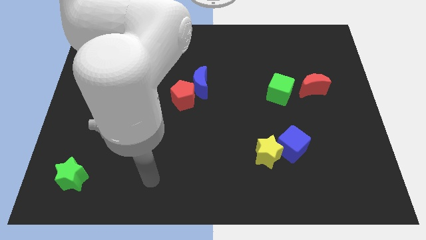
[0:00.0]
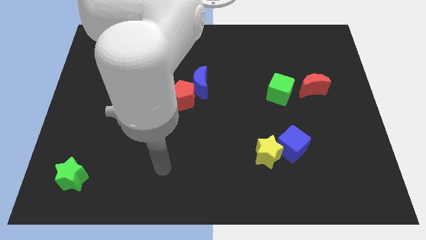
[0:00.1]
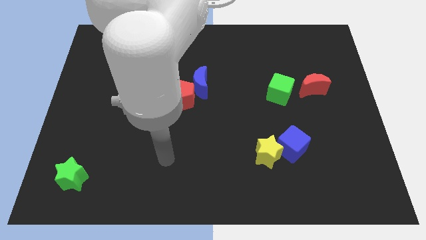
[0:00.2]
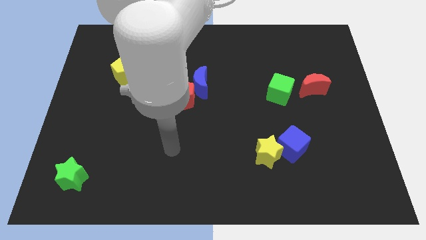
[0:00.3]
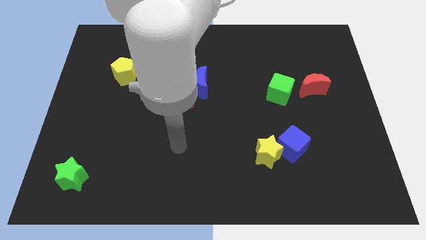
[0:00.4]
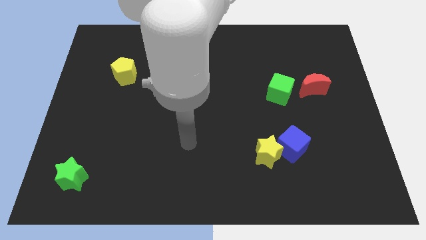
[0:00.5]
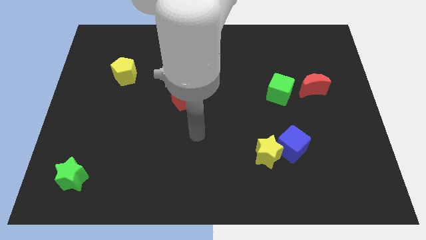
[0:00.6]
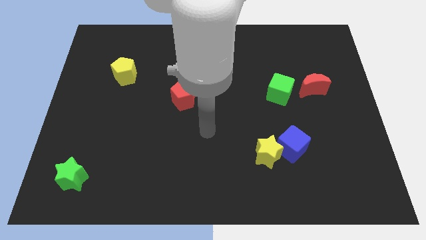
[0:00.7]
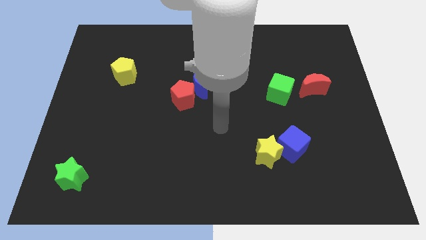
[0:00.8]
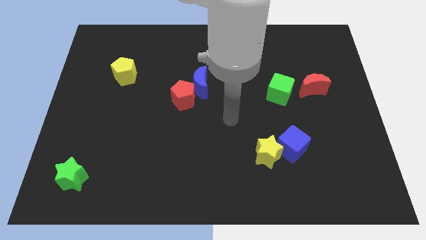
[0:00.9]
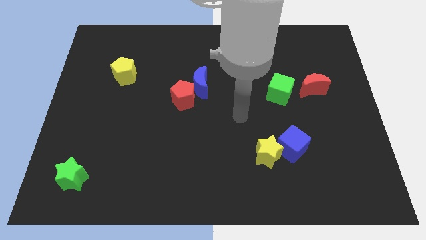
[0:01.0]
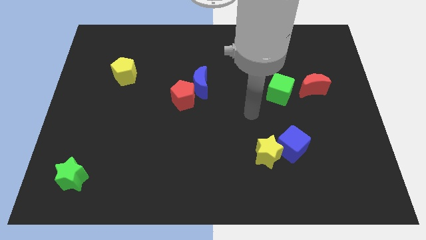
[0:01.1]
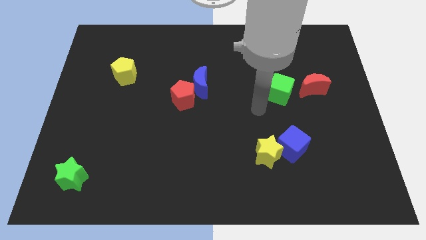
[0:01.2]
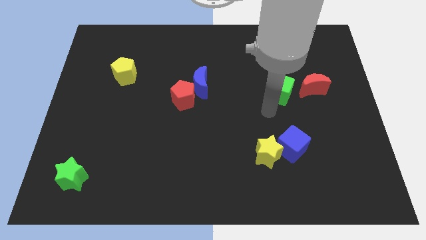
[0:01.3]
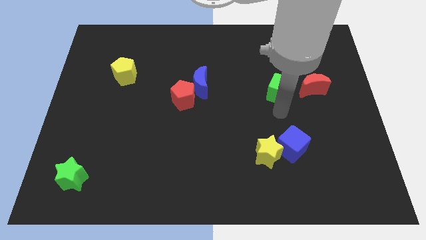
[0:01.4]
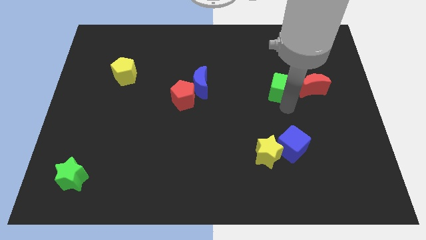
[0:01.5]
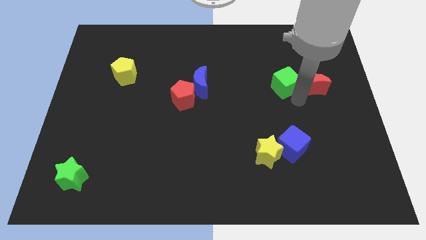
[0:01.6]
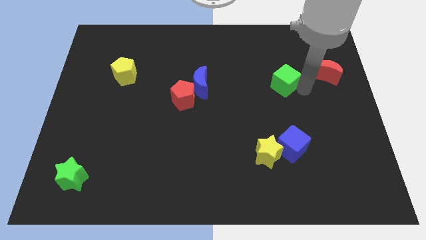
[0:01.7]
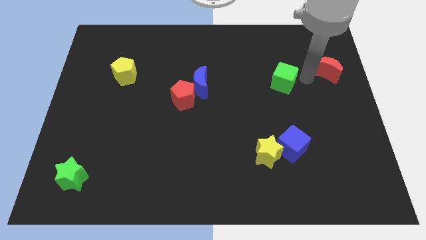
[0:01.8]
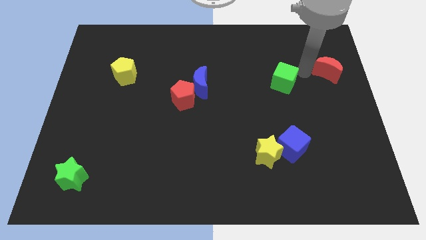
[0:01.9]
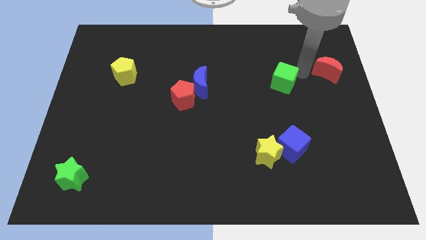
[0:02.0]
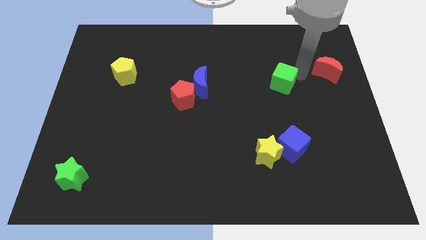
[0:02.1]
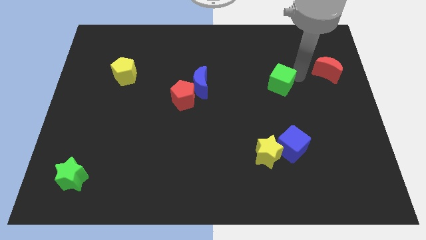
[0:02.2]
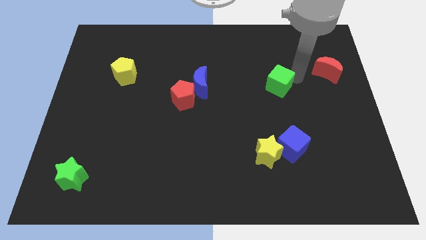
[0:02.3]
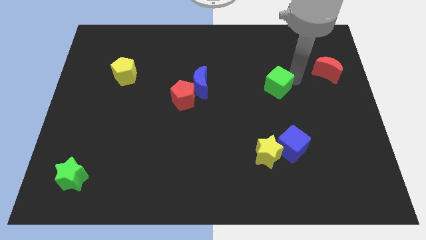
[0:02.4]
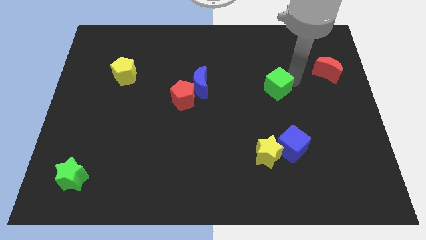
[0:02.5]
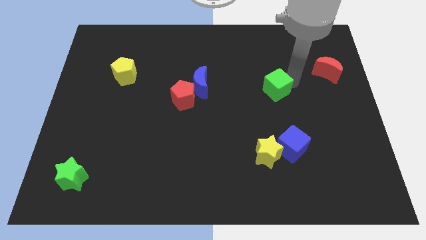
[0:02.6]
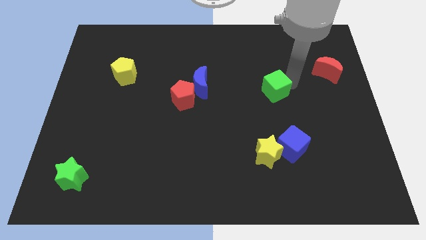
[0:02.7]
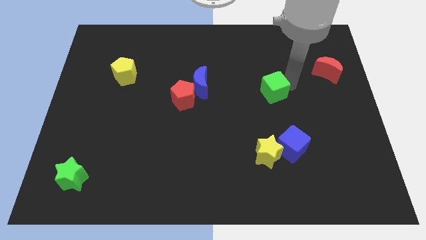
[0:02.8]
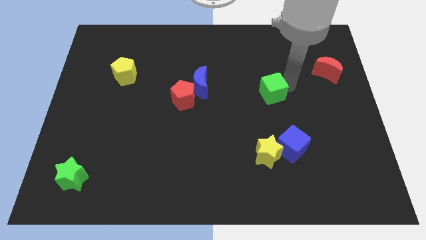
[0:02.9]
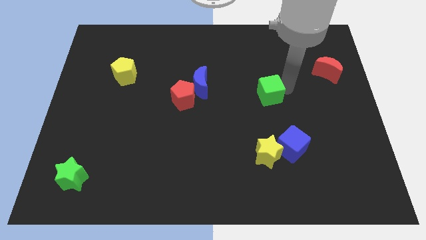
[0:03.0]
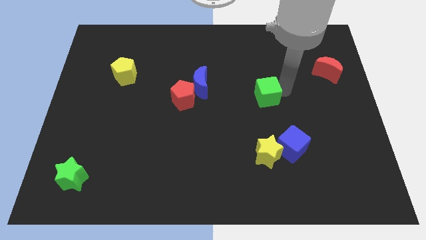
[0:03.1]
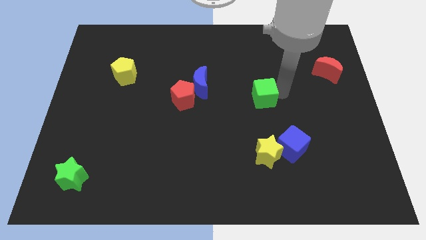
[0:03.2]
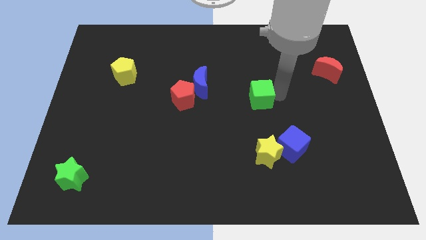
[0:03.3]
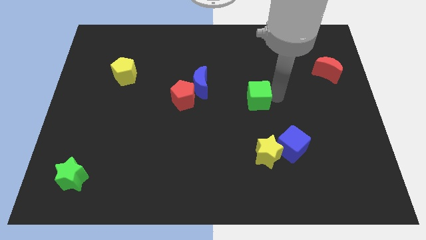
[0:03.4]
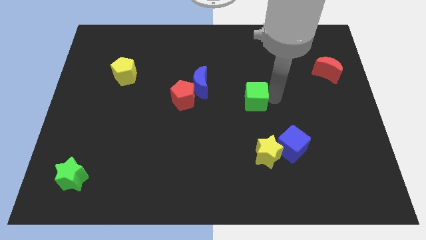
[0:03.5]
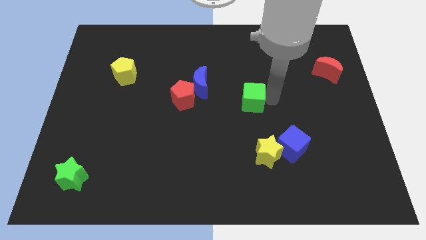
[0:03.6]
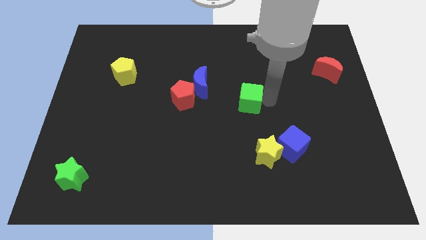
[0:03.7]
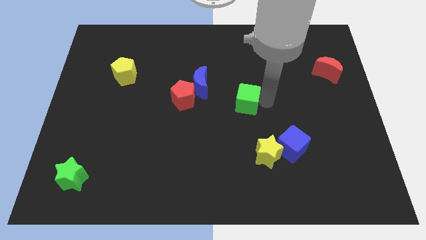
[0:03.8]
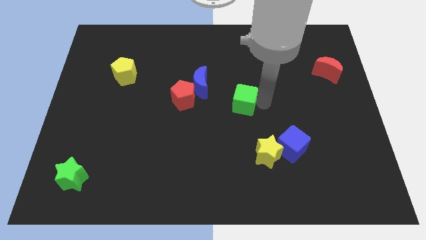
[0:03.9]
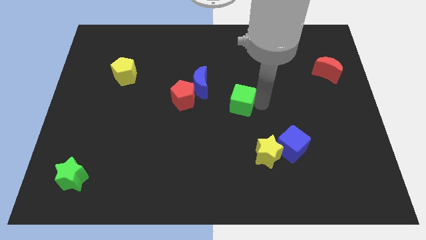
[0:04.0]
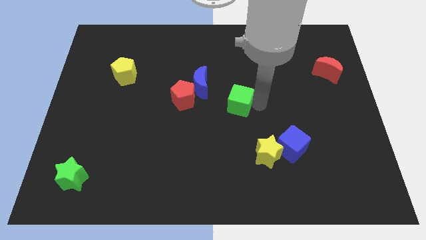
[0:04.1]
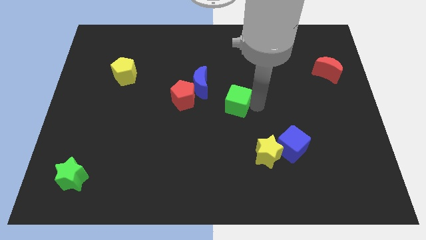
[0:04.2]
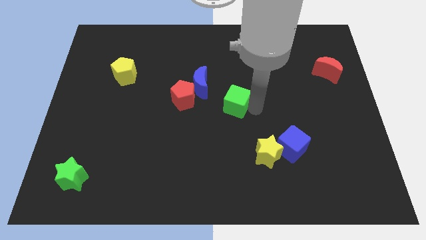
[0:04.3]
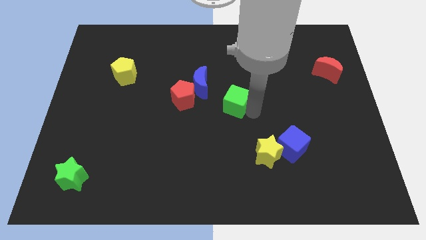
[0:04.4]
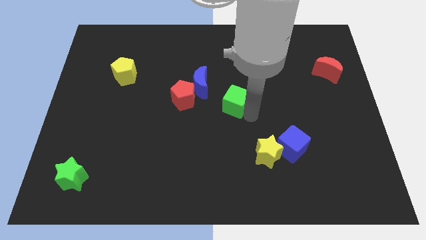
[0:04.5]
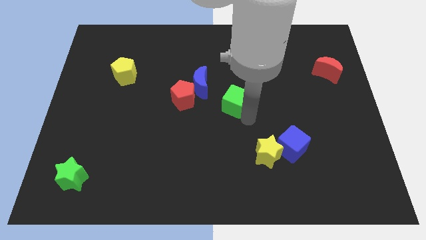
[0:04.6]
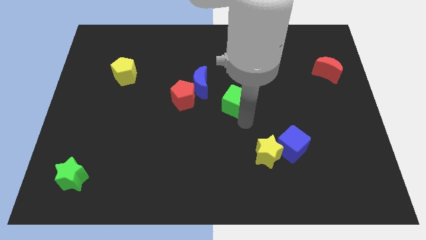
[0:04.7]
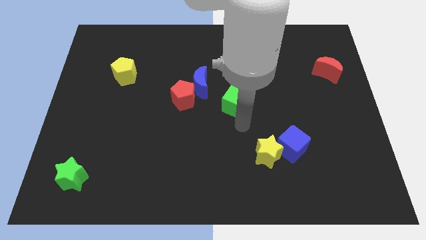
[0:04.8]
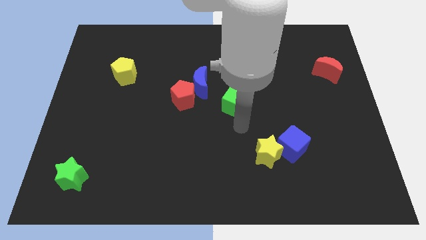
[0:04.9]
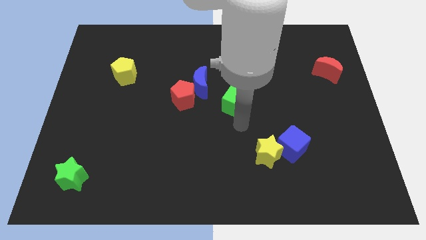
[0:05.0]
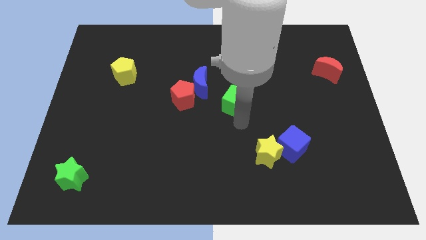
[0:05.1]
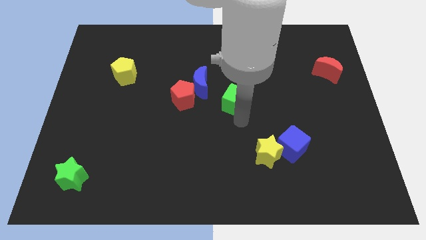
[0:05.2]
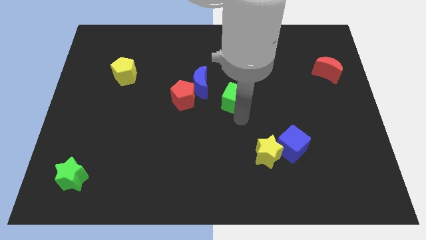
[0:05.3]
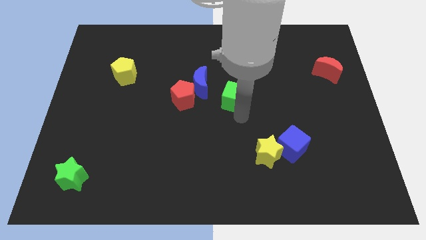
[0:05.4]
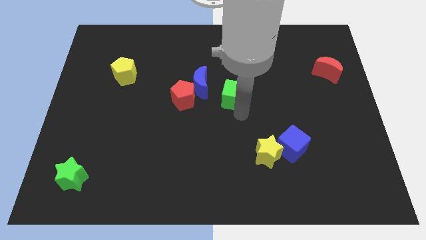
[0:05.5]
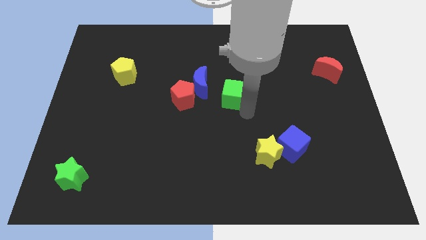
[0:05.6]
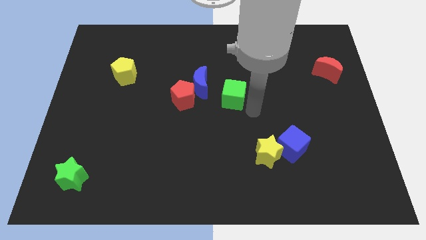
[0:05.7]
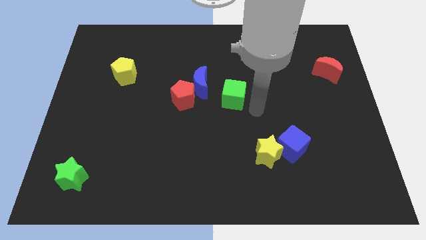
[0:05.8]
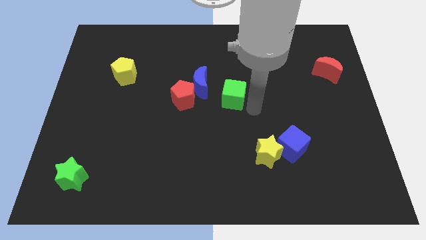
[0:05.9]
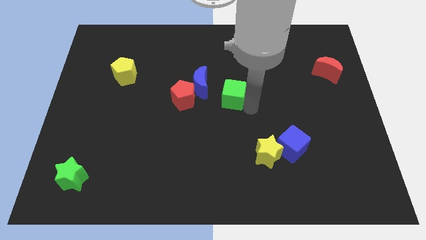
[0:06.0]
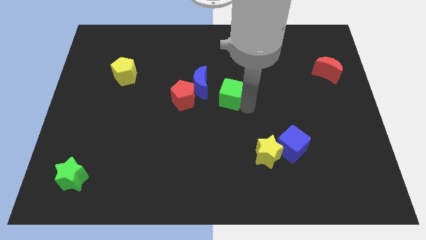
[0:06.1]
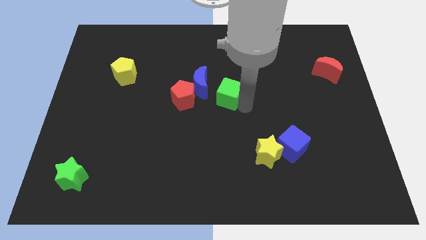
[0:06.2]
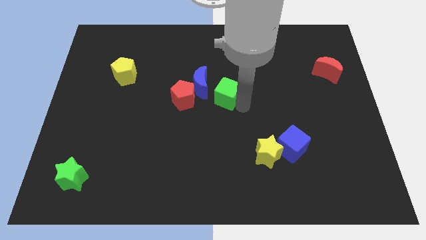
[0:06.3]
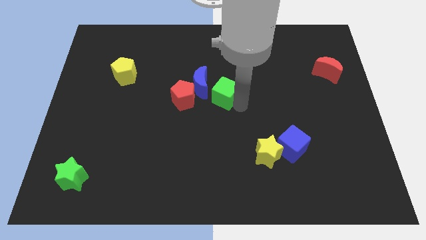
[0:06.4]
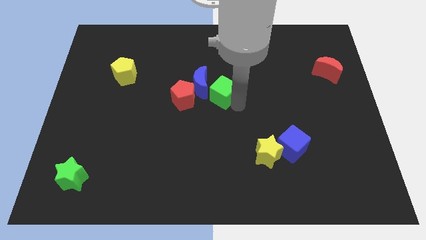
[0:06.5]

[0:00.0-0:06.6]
move the green cube to the blue moon
